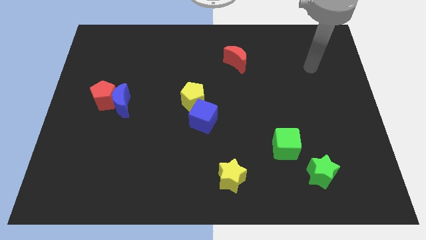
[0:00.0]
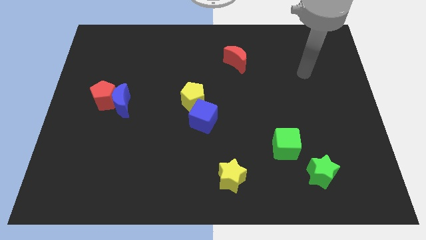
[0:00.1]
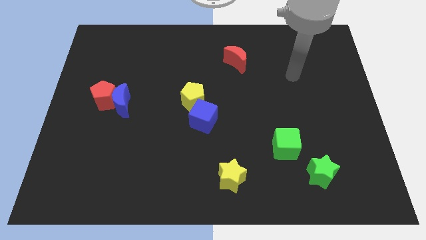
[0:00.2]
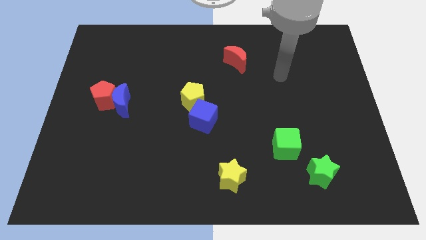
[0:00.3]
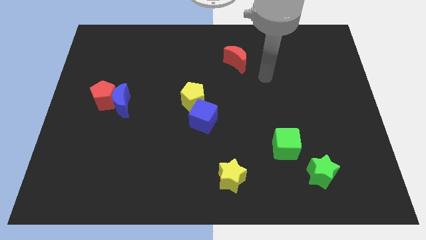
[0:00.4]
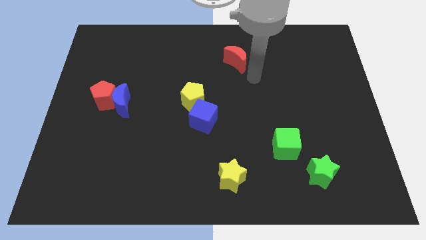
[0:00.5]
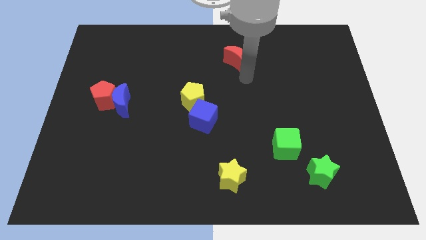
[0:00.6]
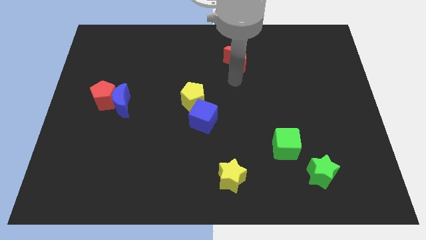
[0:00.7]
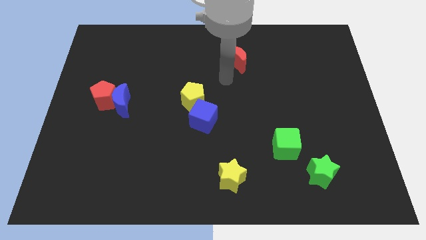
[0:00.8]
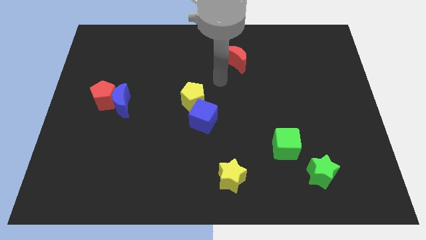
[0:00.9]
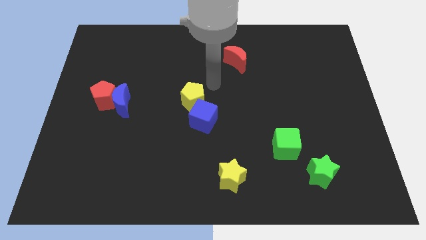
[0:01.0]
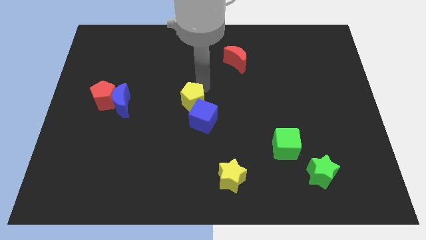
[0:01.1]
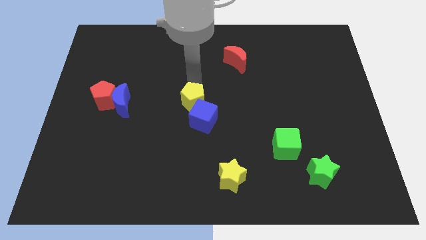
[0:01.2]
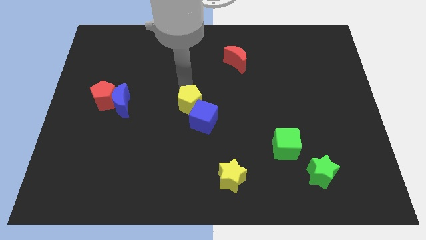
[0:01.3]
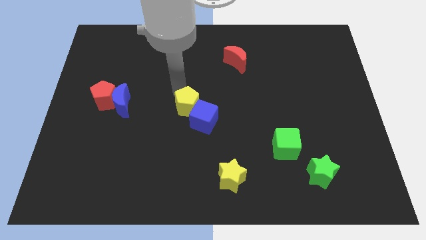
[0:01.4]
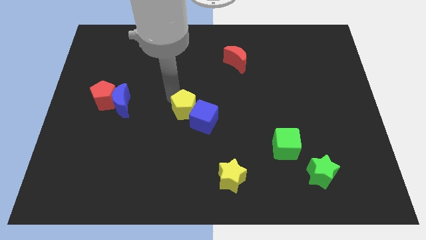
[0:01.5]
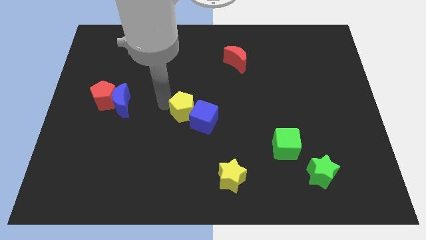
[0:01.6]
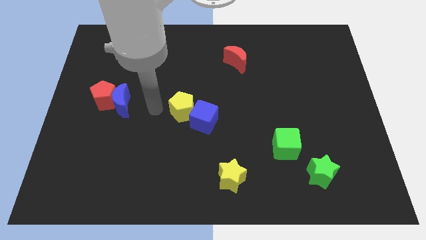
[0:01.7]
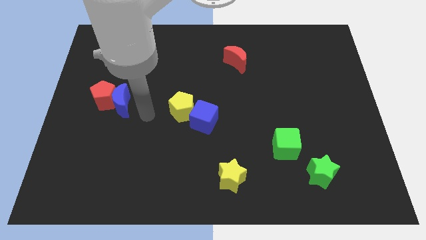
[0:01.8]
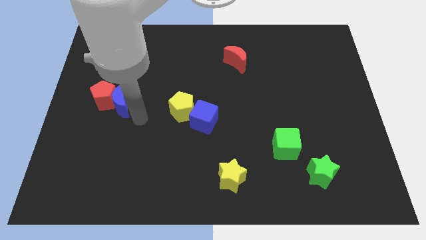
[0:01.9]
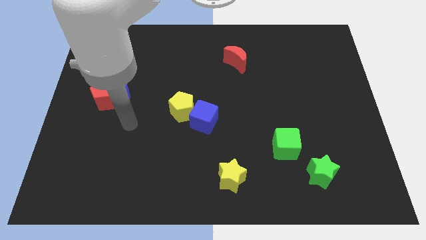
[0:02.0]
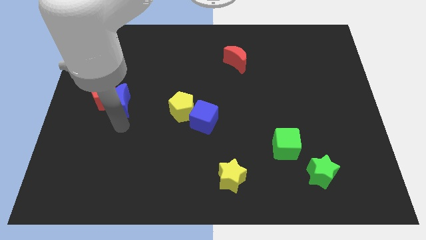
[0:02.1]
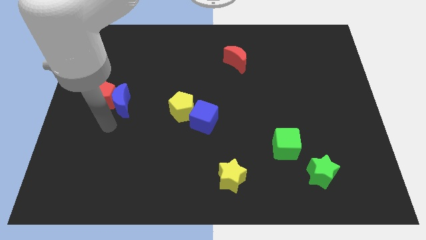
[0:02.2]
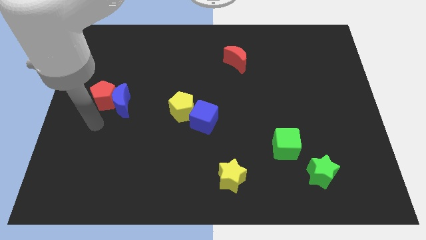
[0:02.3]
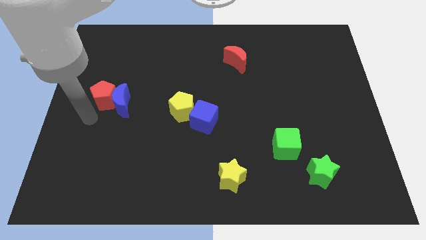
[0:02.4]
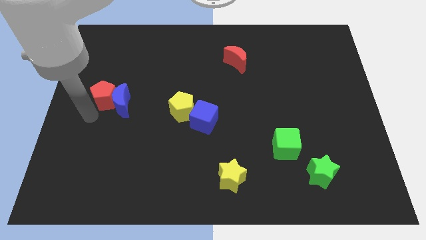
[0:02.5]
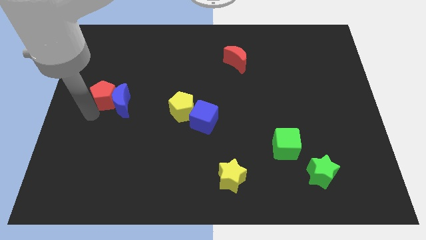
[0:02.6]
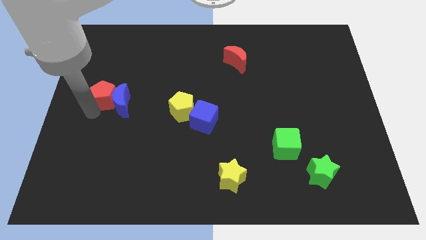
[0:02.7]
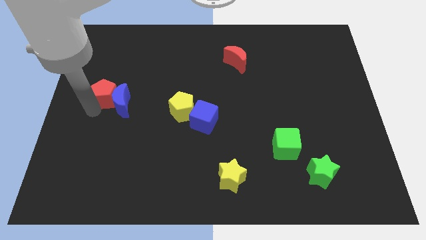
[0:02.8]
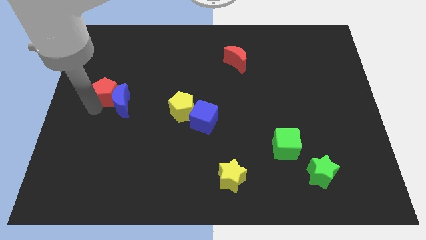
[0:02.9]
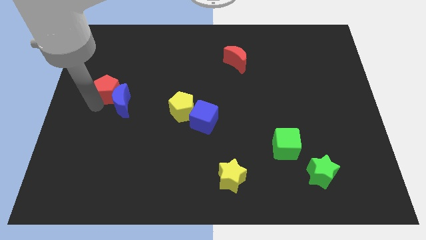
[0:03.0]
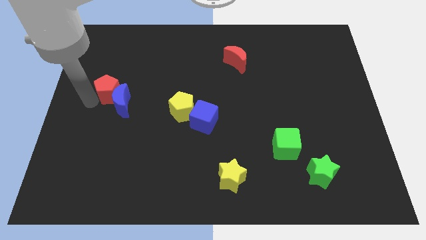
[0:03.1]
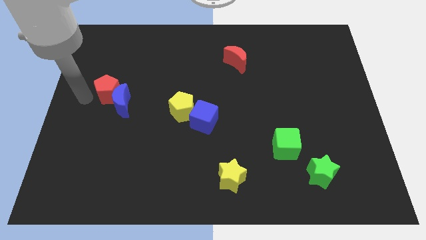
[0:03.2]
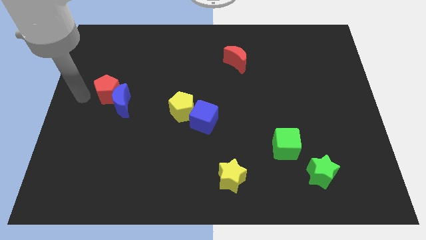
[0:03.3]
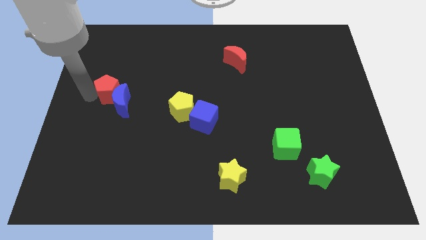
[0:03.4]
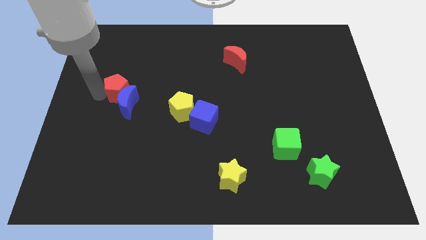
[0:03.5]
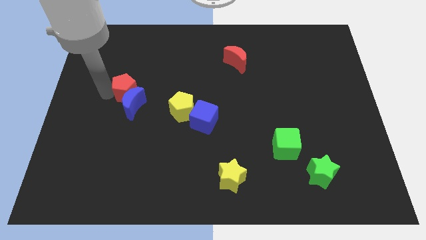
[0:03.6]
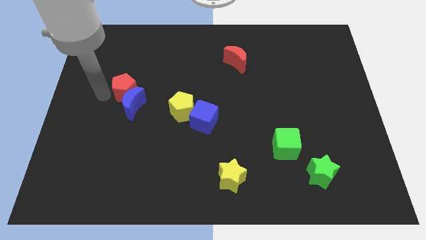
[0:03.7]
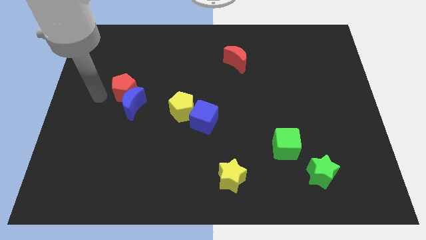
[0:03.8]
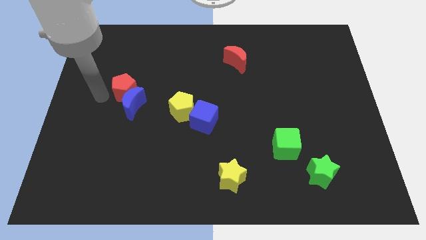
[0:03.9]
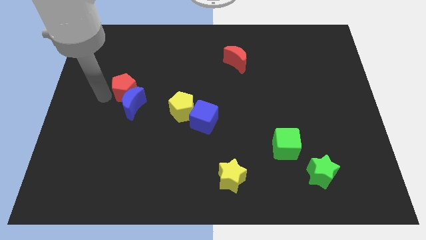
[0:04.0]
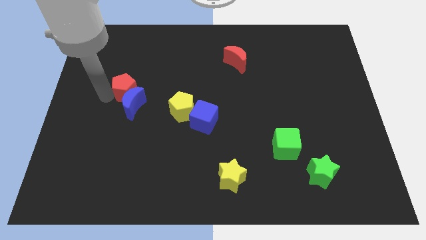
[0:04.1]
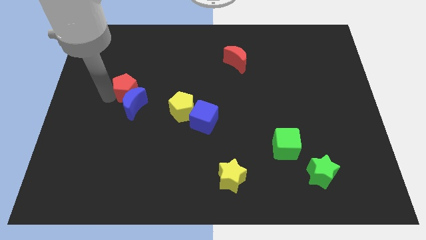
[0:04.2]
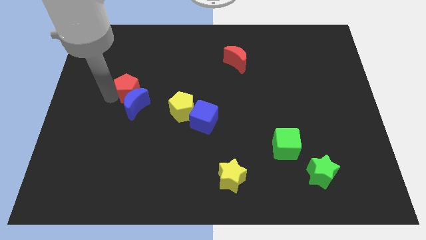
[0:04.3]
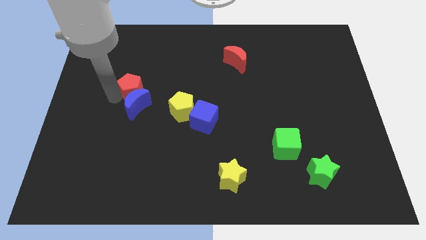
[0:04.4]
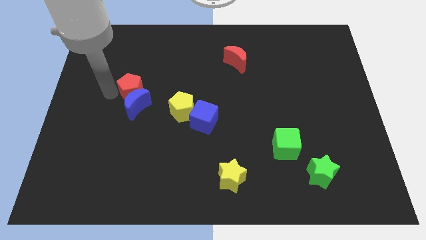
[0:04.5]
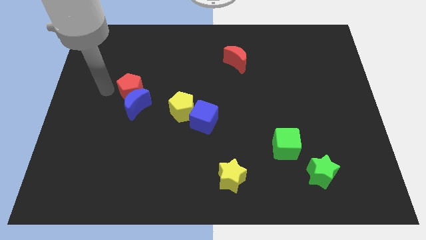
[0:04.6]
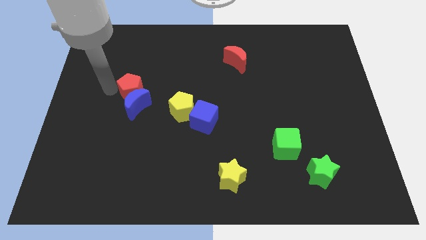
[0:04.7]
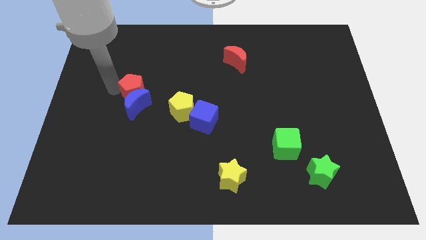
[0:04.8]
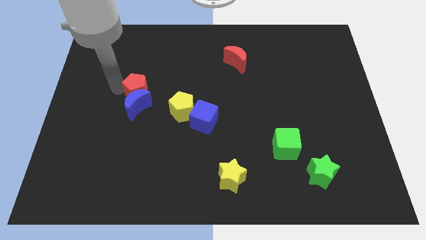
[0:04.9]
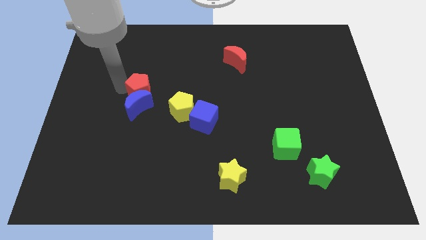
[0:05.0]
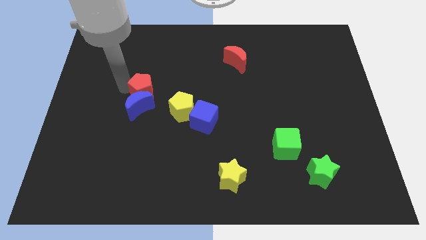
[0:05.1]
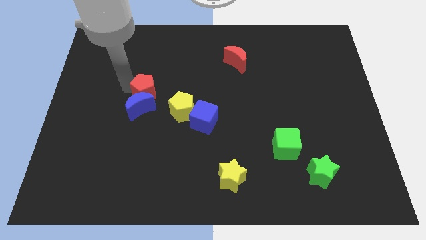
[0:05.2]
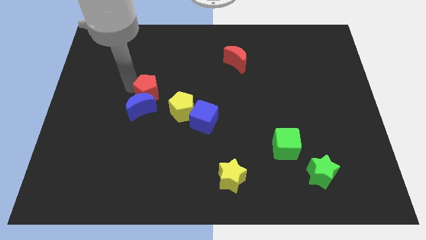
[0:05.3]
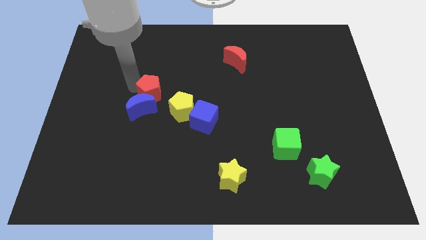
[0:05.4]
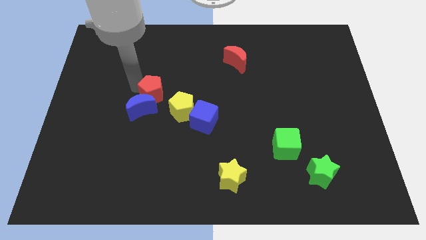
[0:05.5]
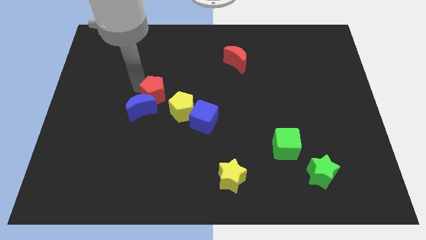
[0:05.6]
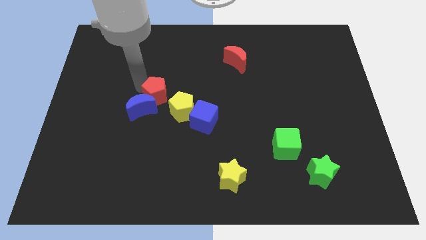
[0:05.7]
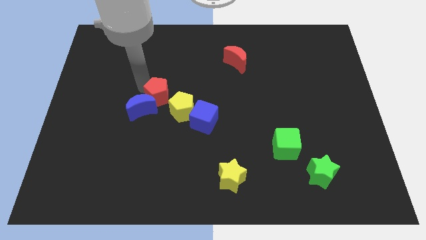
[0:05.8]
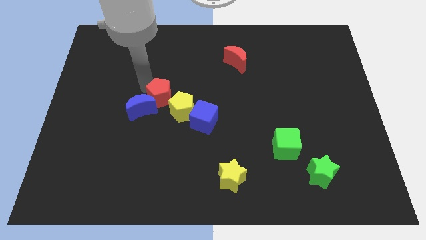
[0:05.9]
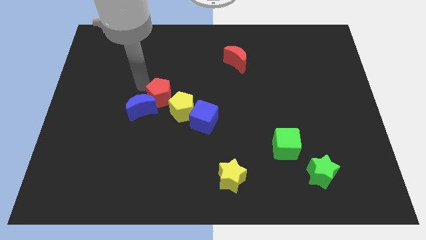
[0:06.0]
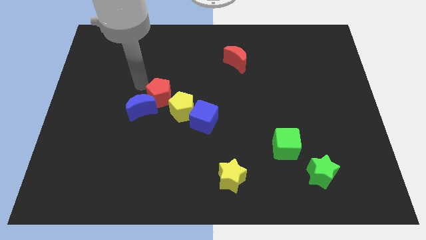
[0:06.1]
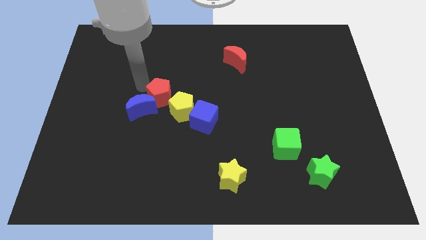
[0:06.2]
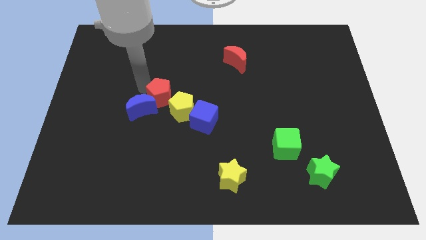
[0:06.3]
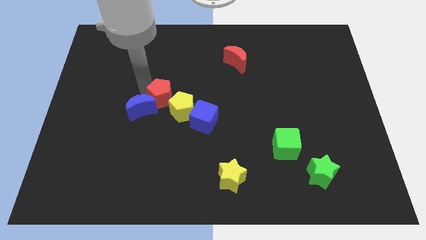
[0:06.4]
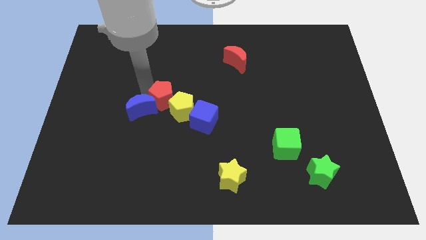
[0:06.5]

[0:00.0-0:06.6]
push the red pentagon next to the yellow pentagon
